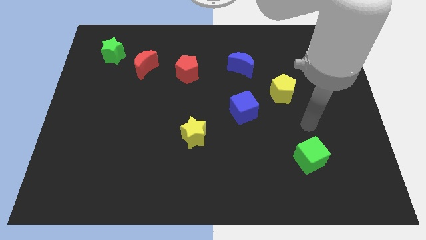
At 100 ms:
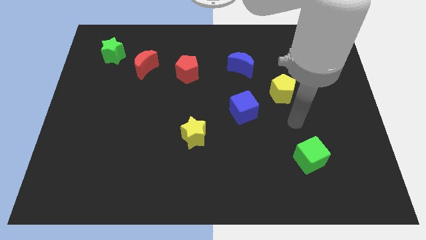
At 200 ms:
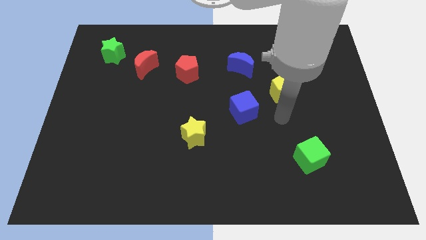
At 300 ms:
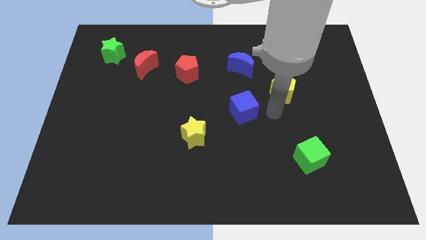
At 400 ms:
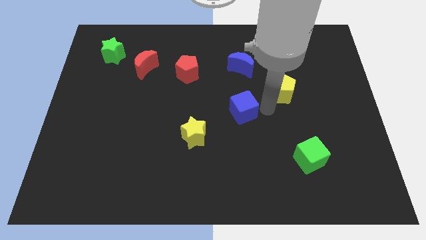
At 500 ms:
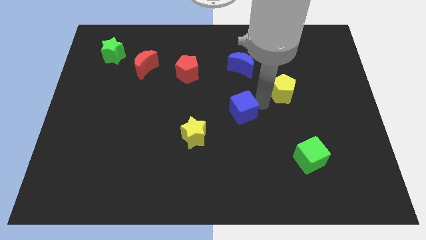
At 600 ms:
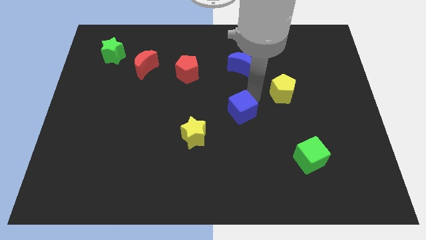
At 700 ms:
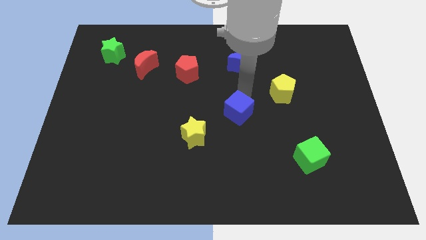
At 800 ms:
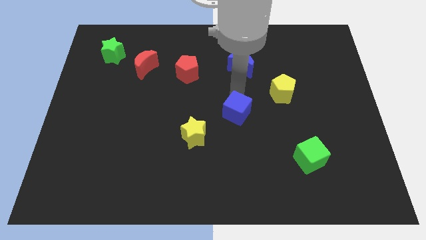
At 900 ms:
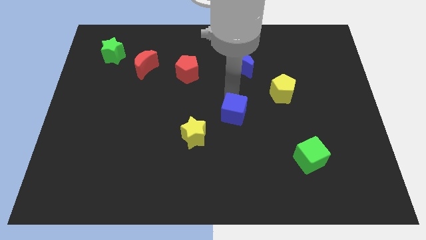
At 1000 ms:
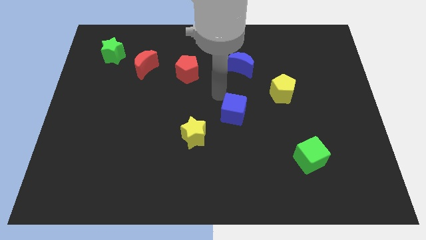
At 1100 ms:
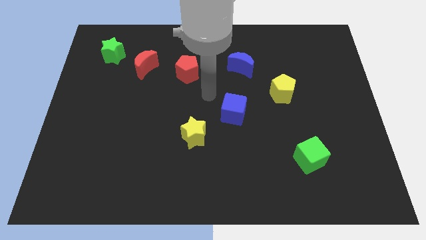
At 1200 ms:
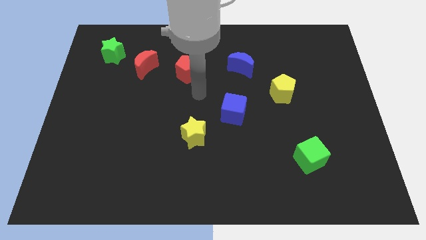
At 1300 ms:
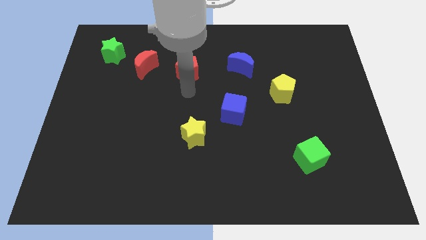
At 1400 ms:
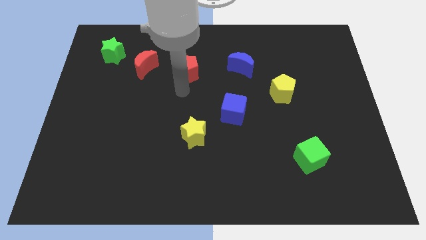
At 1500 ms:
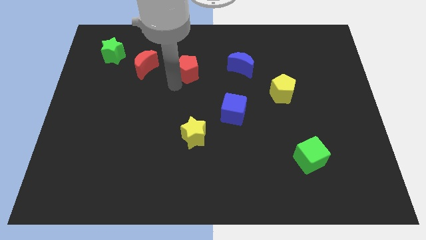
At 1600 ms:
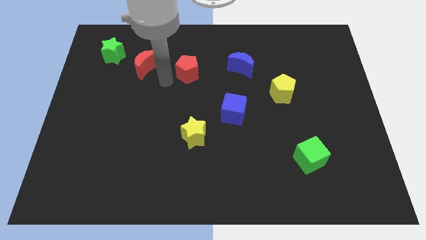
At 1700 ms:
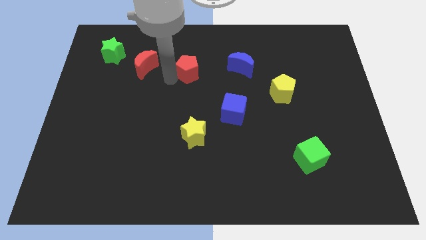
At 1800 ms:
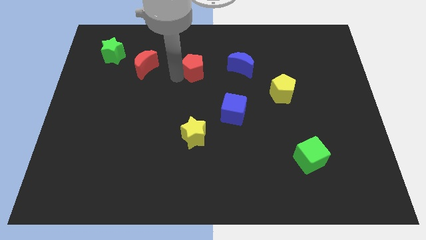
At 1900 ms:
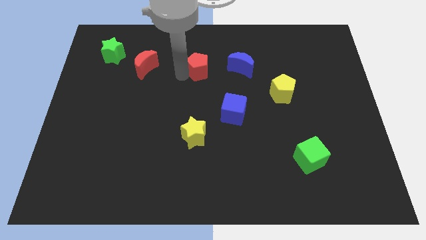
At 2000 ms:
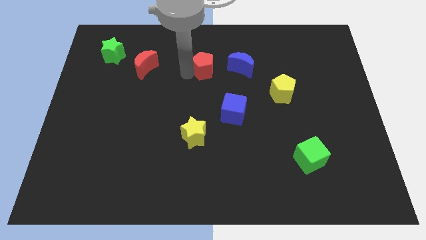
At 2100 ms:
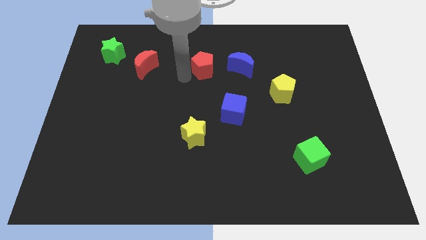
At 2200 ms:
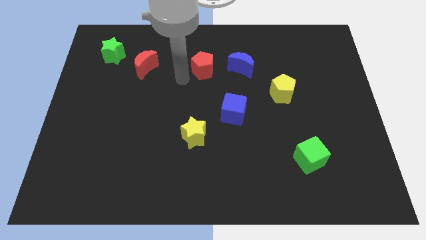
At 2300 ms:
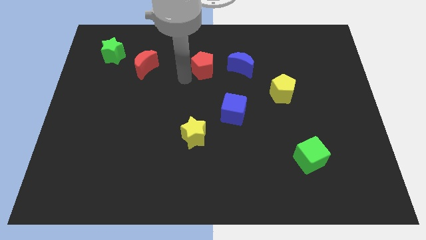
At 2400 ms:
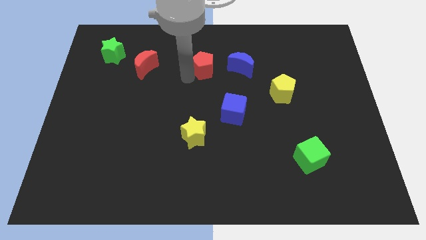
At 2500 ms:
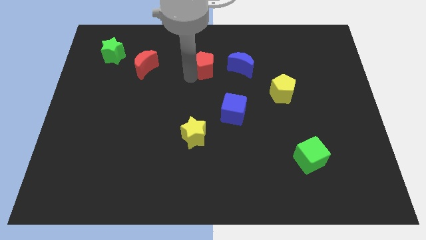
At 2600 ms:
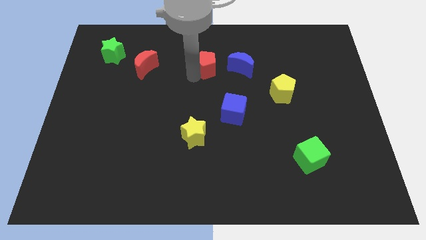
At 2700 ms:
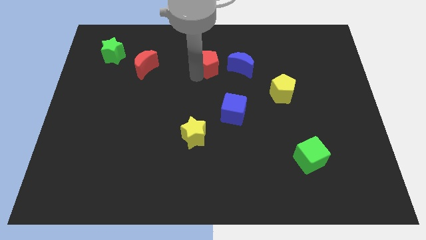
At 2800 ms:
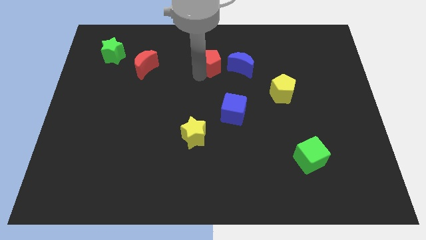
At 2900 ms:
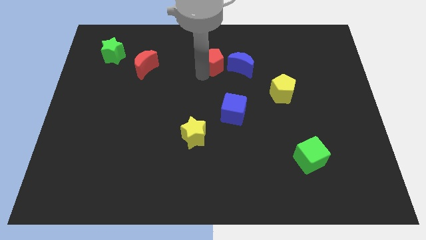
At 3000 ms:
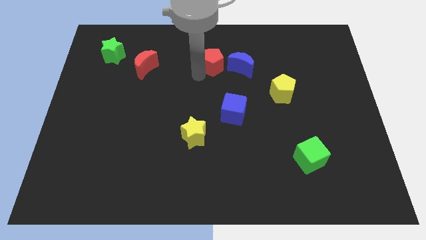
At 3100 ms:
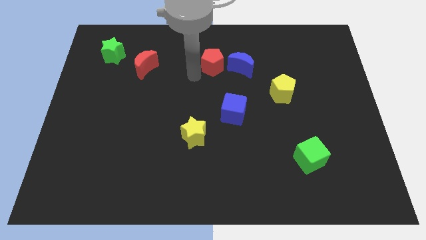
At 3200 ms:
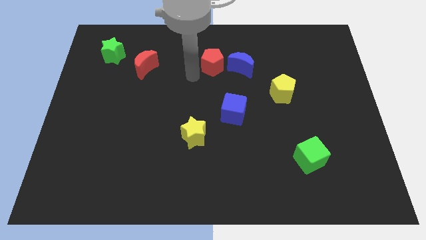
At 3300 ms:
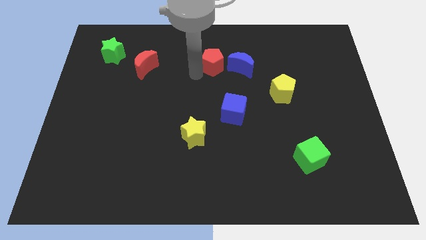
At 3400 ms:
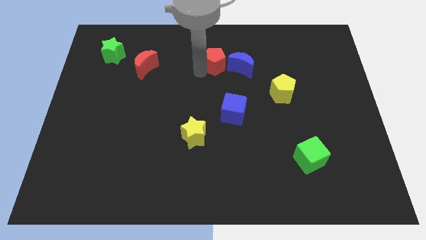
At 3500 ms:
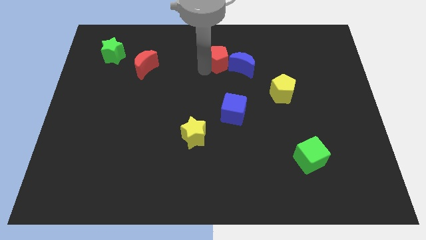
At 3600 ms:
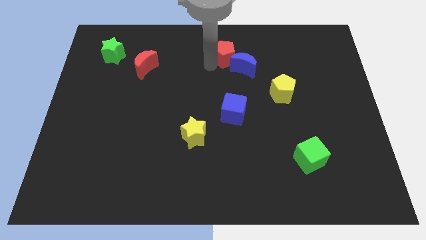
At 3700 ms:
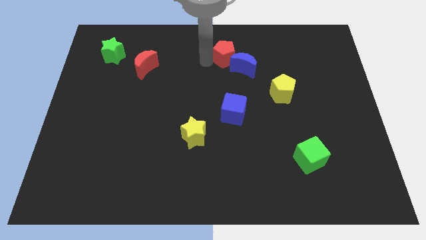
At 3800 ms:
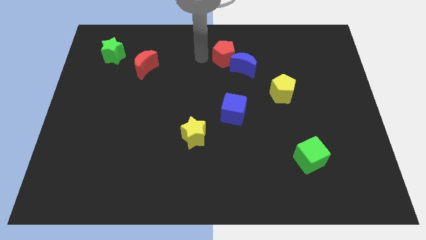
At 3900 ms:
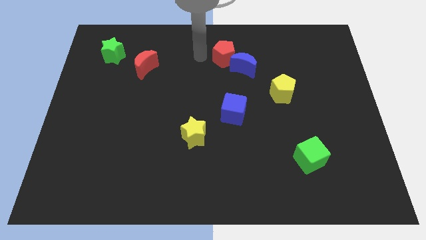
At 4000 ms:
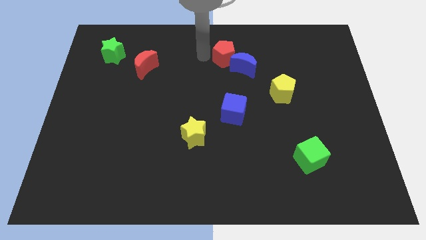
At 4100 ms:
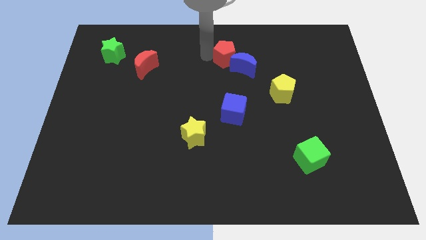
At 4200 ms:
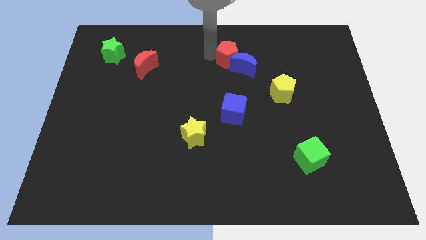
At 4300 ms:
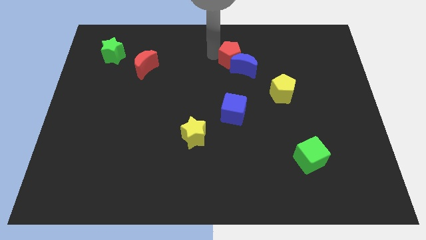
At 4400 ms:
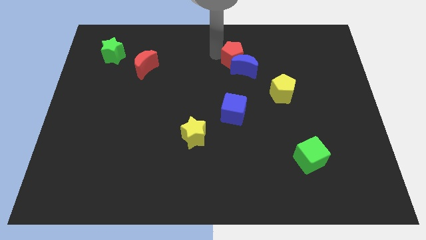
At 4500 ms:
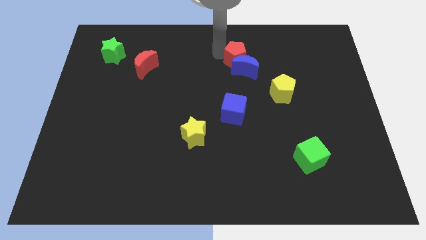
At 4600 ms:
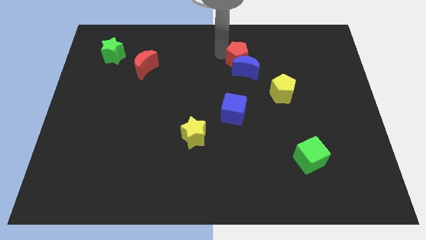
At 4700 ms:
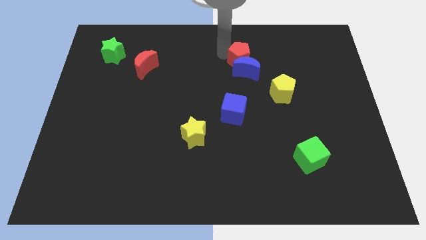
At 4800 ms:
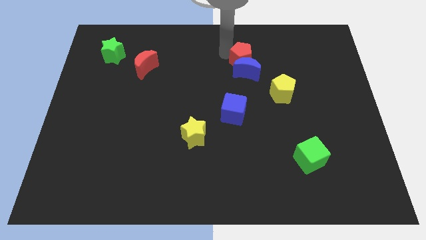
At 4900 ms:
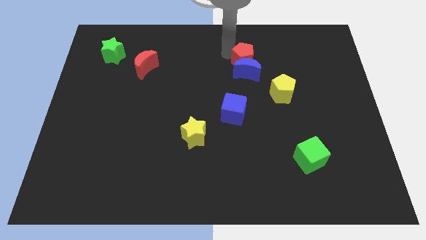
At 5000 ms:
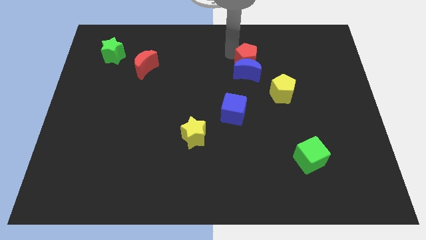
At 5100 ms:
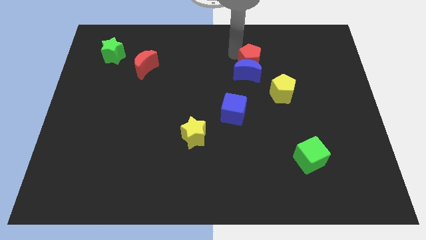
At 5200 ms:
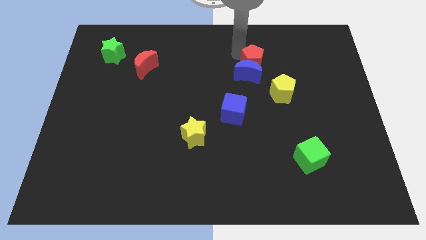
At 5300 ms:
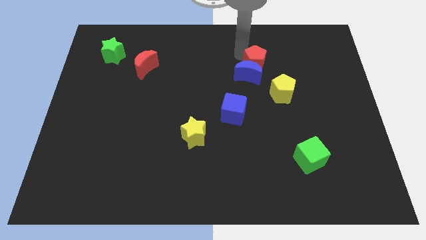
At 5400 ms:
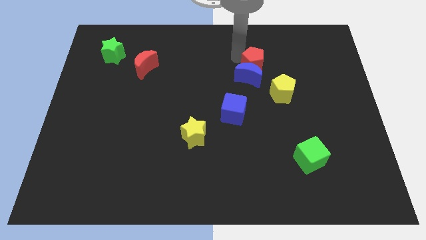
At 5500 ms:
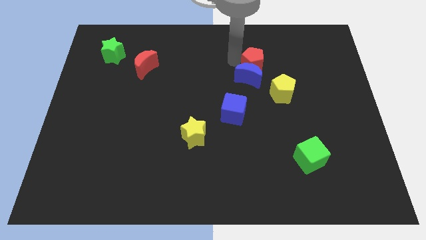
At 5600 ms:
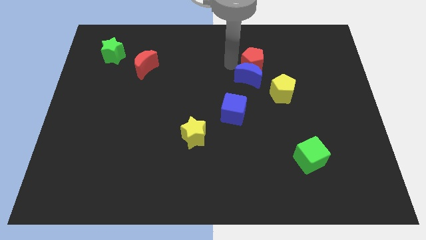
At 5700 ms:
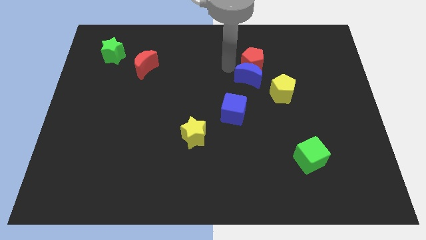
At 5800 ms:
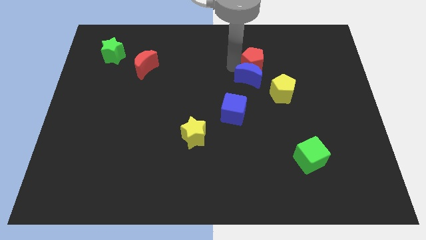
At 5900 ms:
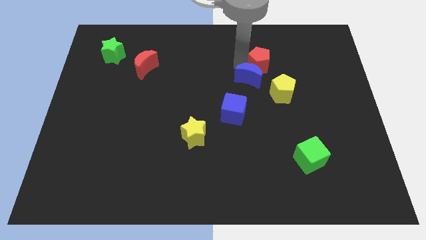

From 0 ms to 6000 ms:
move the red pentagon to the top of the yellow pentagon

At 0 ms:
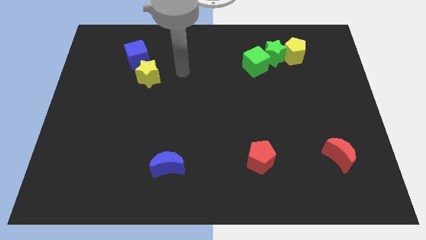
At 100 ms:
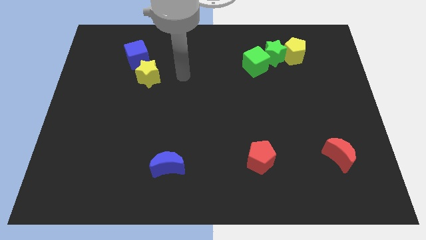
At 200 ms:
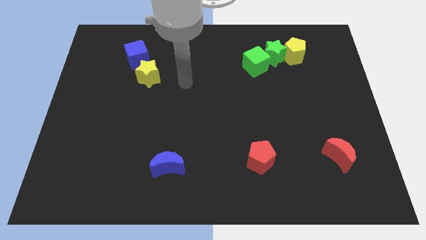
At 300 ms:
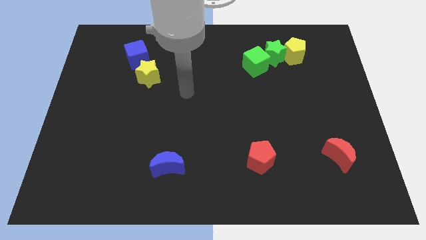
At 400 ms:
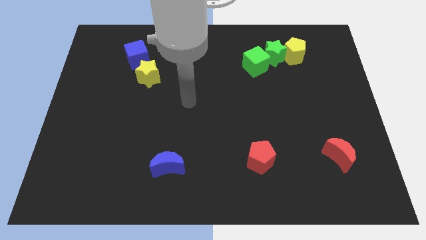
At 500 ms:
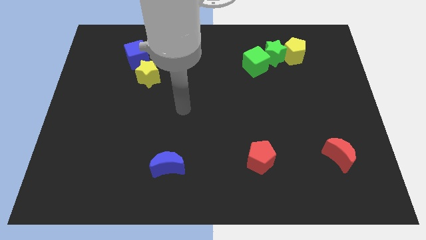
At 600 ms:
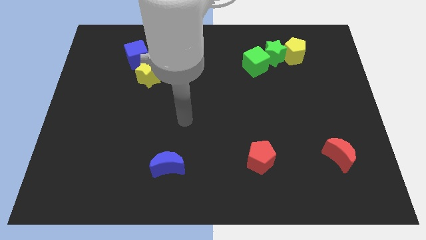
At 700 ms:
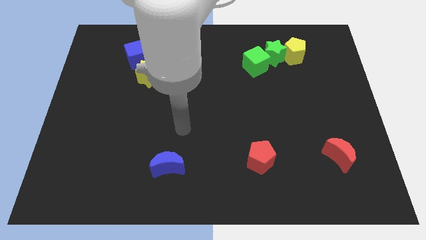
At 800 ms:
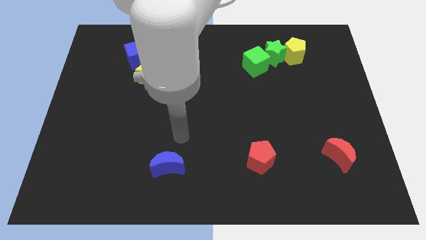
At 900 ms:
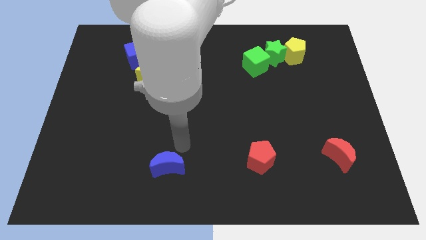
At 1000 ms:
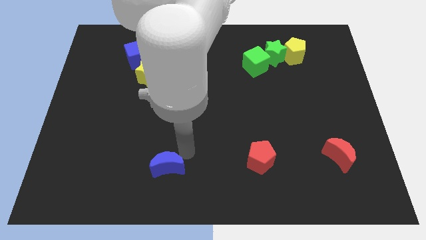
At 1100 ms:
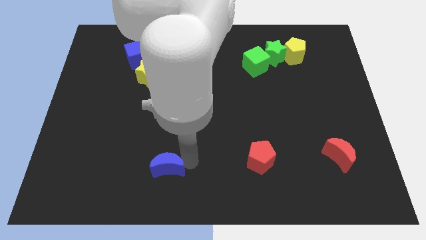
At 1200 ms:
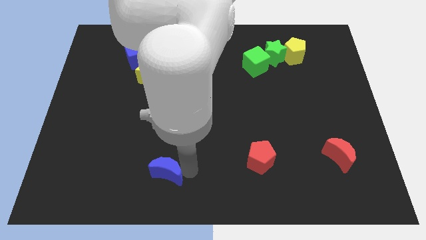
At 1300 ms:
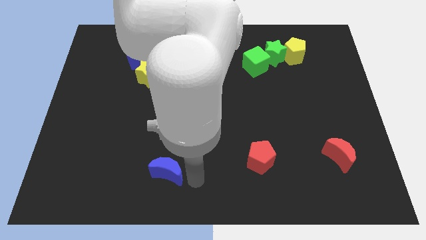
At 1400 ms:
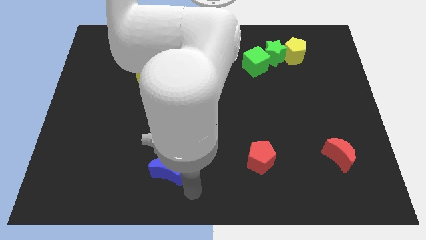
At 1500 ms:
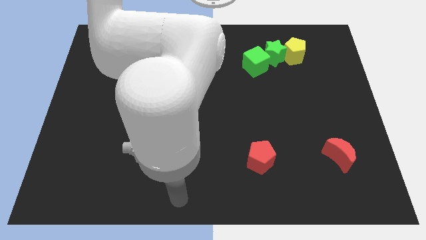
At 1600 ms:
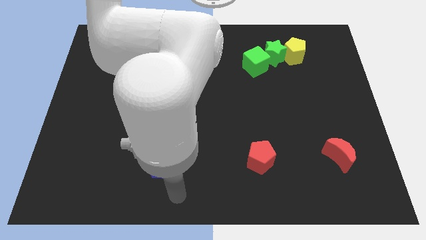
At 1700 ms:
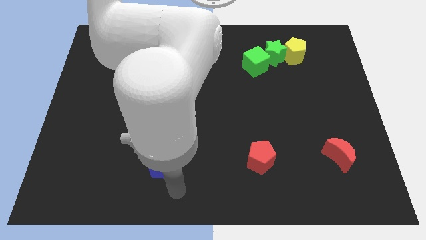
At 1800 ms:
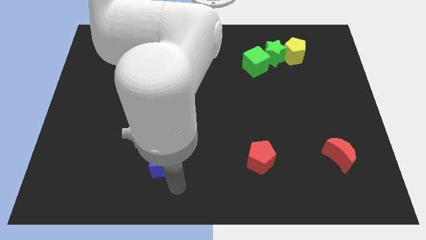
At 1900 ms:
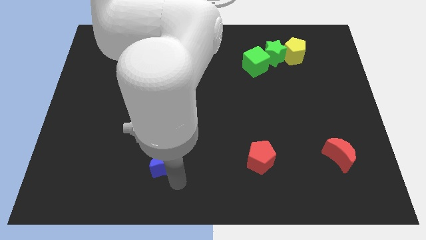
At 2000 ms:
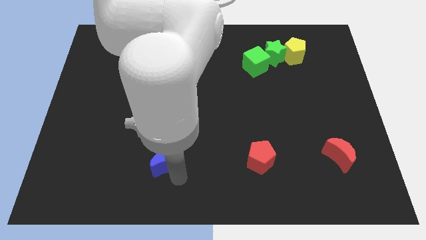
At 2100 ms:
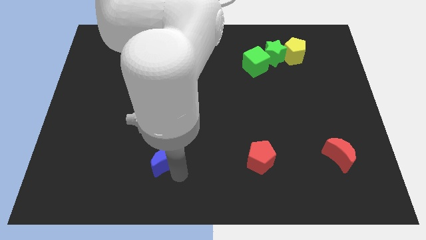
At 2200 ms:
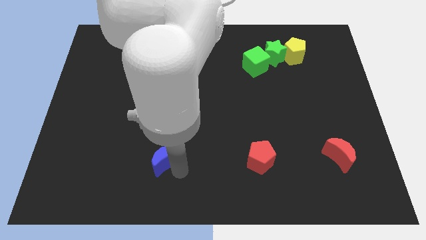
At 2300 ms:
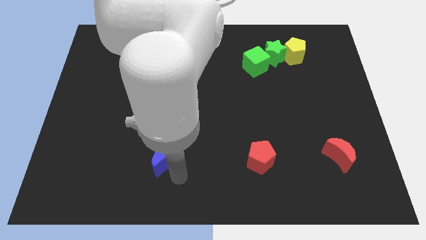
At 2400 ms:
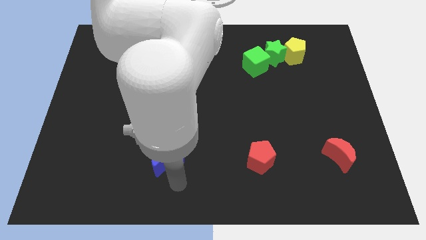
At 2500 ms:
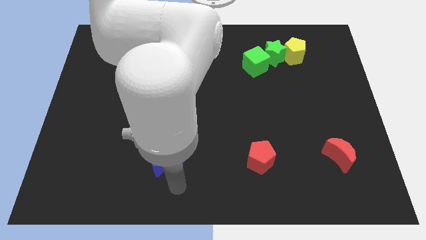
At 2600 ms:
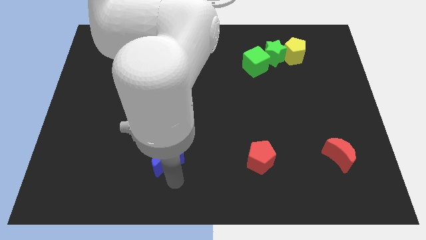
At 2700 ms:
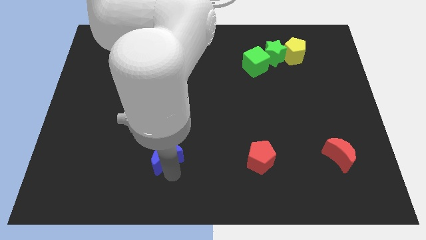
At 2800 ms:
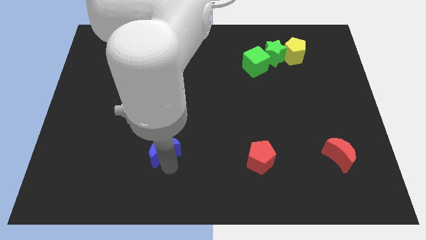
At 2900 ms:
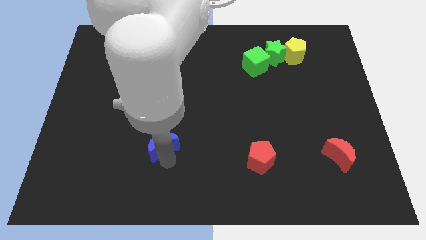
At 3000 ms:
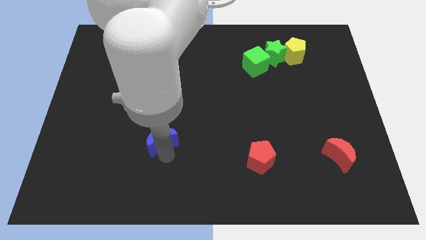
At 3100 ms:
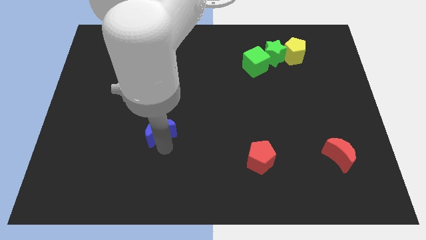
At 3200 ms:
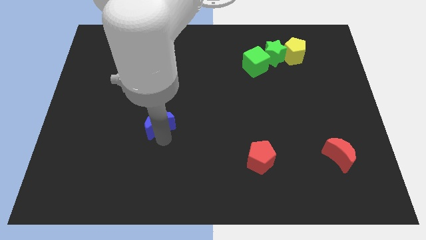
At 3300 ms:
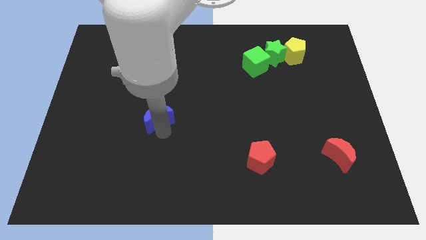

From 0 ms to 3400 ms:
slide the blue moon below the yellow star
